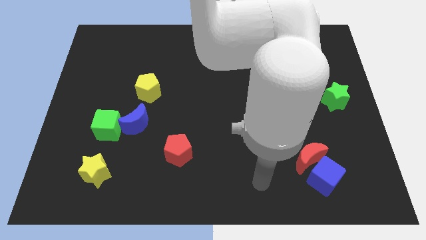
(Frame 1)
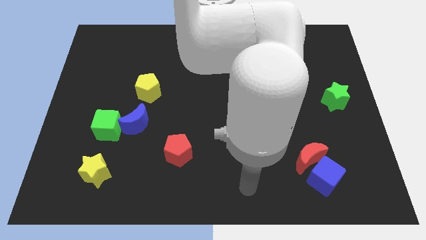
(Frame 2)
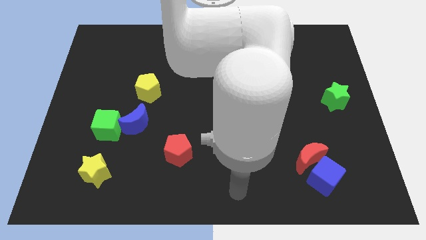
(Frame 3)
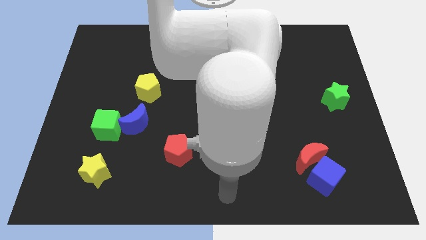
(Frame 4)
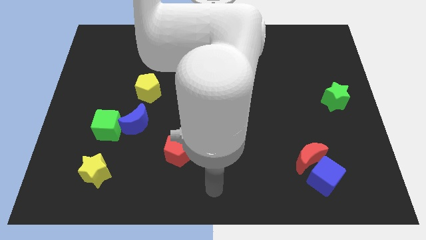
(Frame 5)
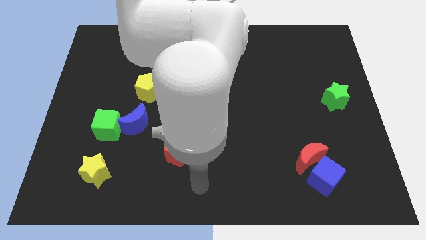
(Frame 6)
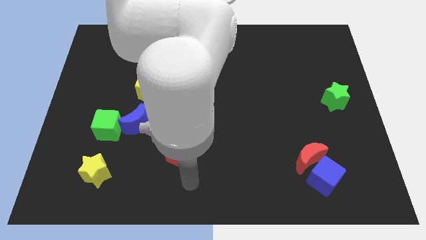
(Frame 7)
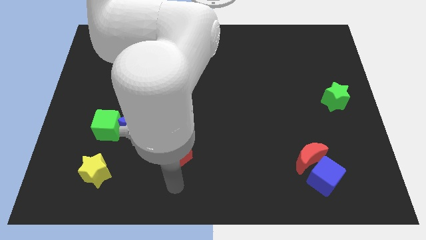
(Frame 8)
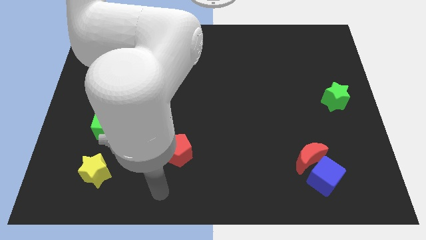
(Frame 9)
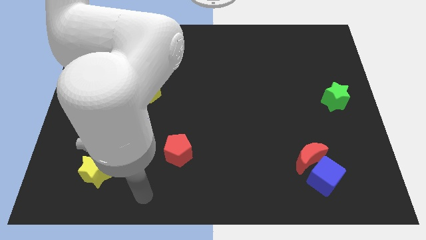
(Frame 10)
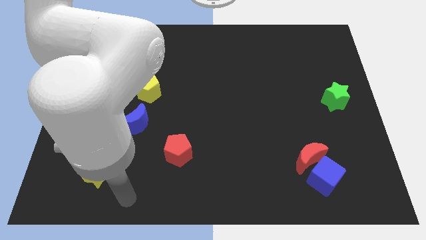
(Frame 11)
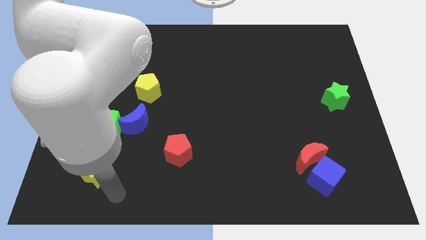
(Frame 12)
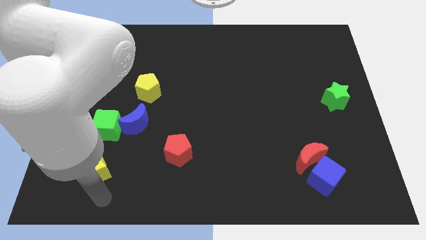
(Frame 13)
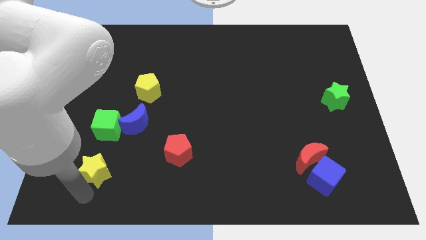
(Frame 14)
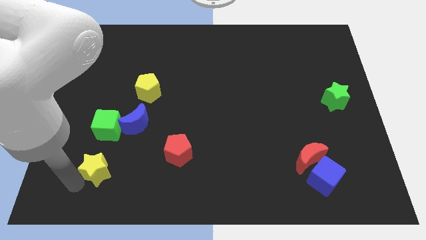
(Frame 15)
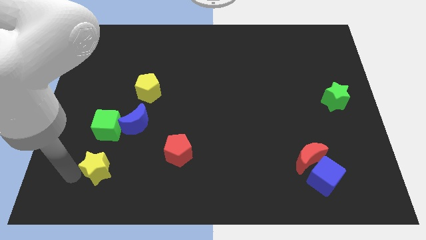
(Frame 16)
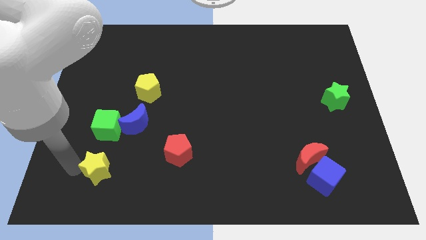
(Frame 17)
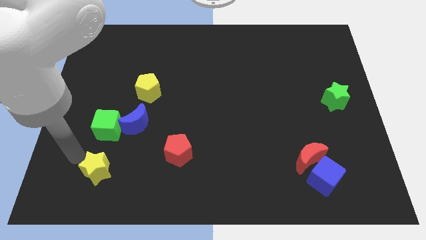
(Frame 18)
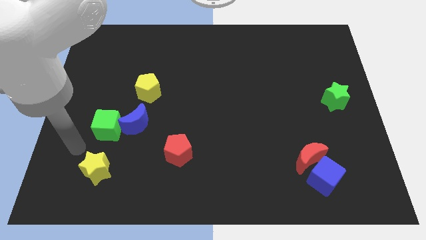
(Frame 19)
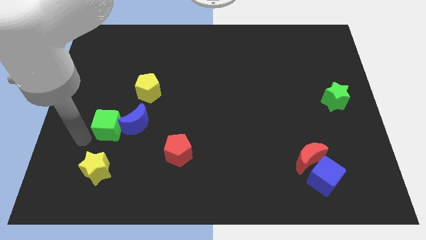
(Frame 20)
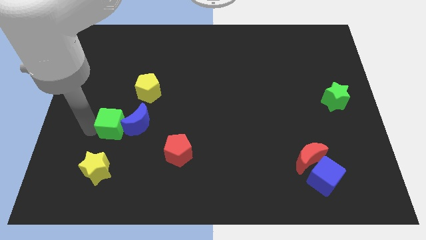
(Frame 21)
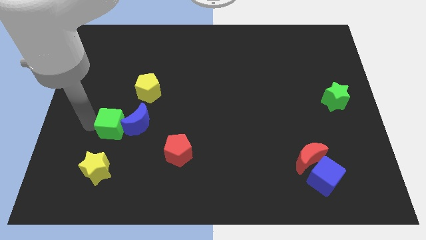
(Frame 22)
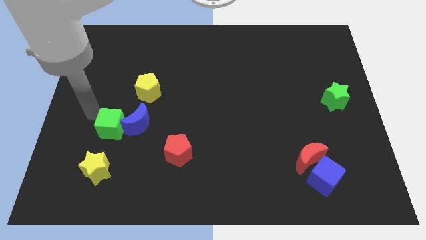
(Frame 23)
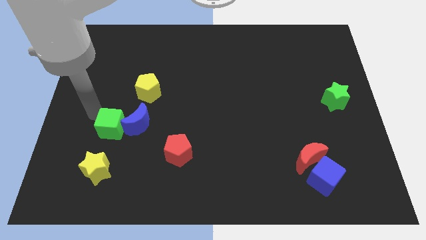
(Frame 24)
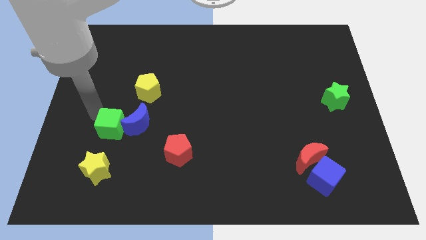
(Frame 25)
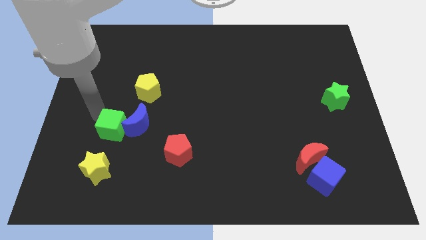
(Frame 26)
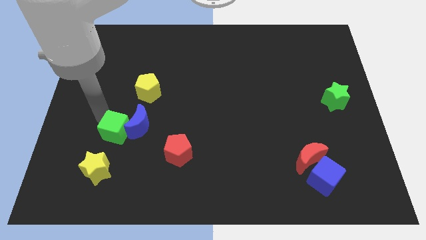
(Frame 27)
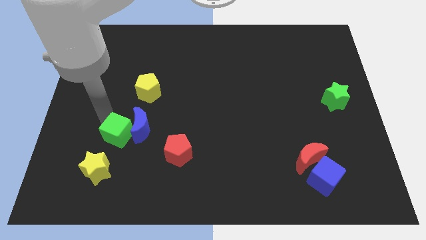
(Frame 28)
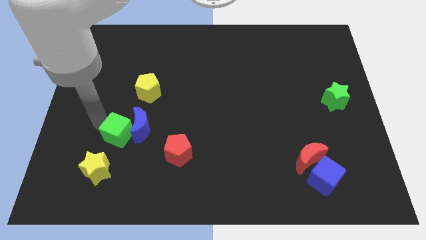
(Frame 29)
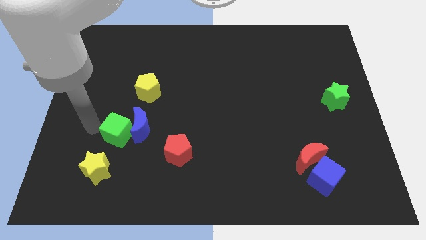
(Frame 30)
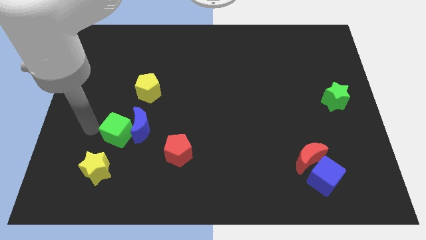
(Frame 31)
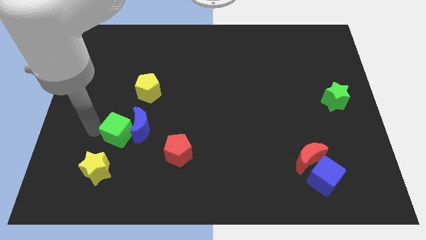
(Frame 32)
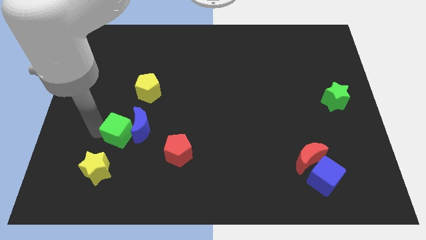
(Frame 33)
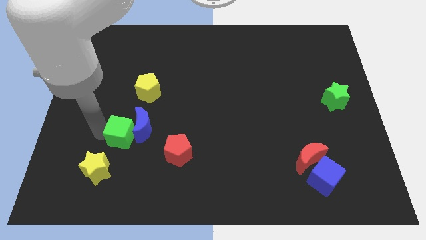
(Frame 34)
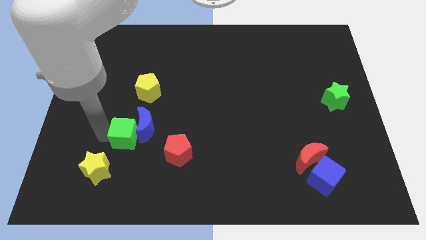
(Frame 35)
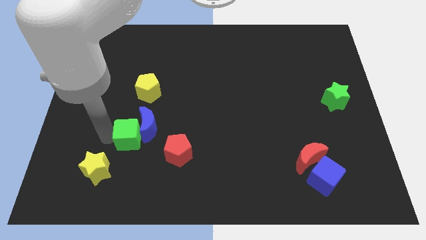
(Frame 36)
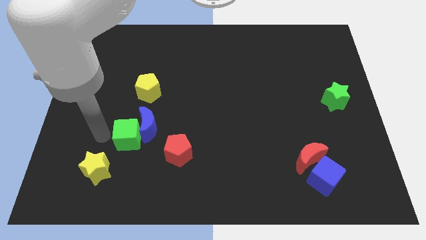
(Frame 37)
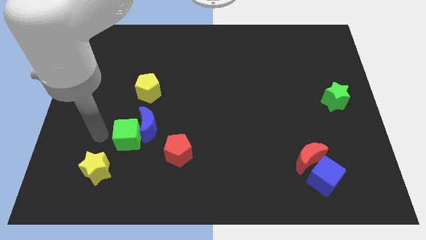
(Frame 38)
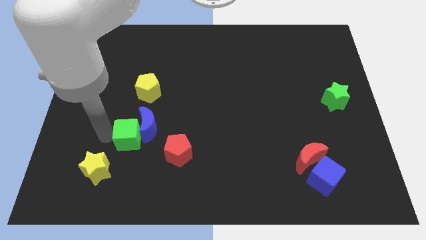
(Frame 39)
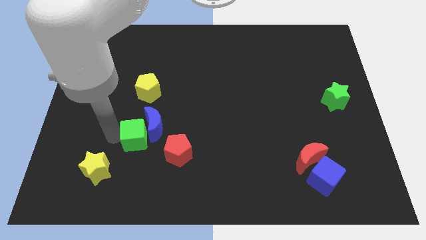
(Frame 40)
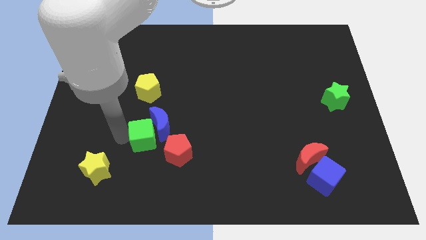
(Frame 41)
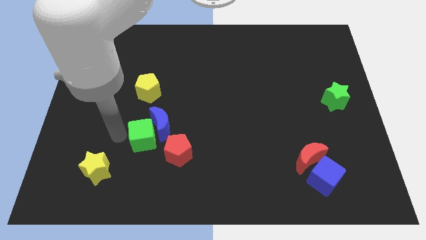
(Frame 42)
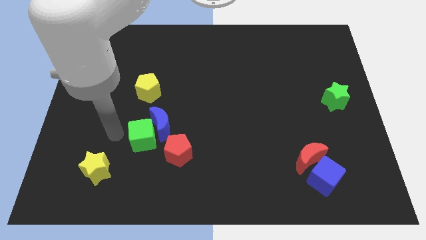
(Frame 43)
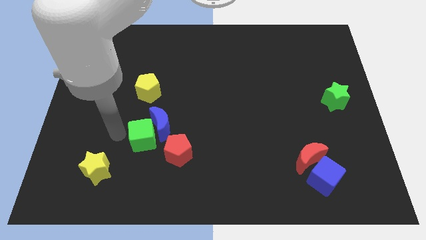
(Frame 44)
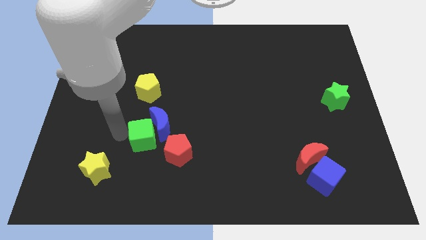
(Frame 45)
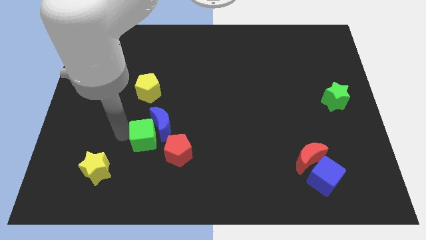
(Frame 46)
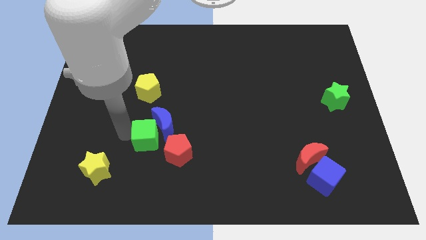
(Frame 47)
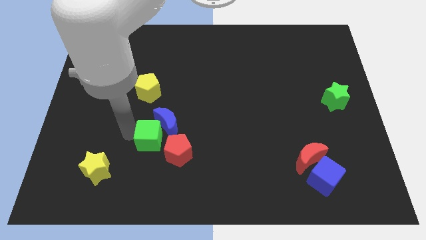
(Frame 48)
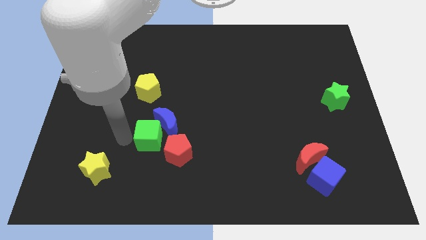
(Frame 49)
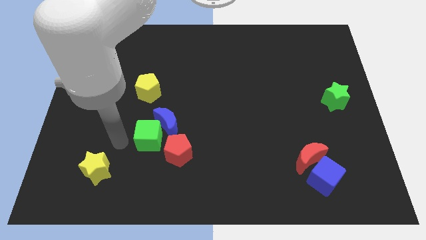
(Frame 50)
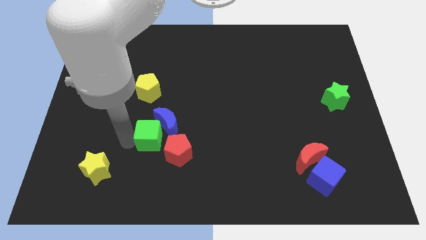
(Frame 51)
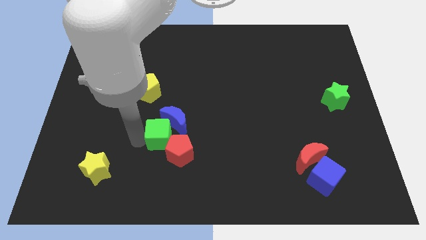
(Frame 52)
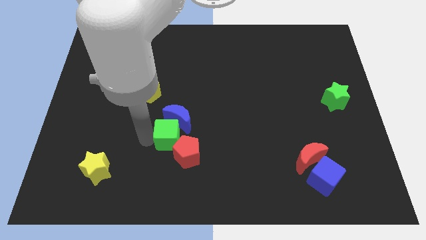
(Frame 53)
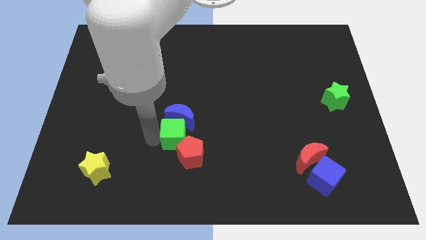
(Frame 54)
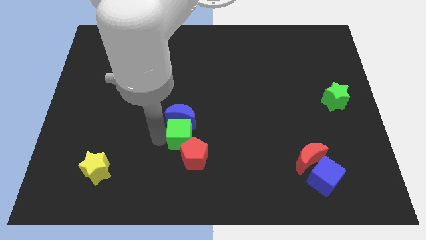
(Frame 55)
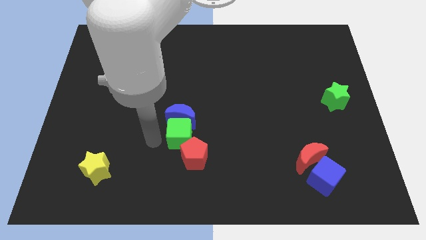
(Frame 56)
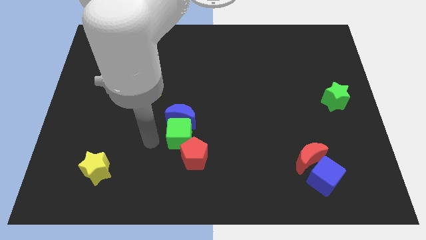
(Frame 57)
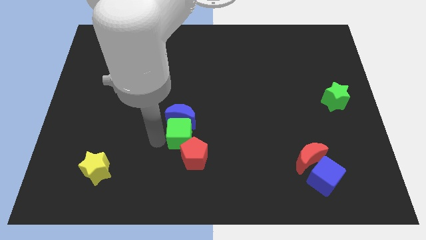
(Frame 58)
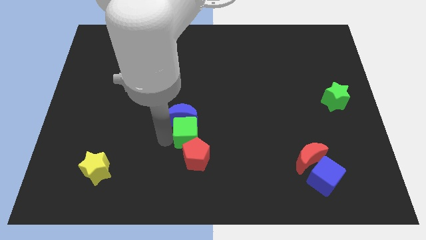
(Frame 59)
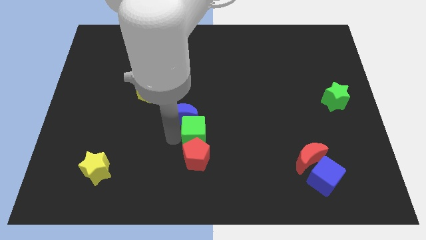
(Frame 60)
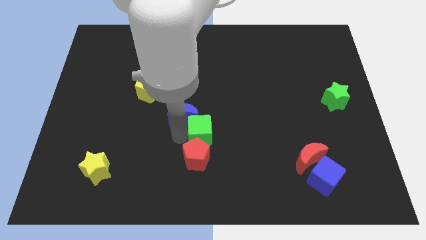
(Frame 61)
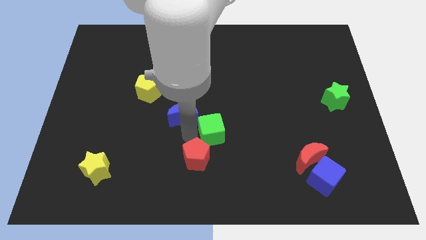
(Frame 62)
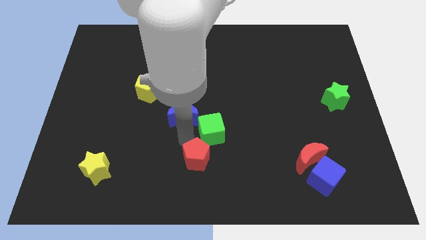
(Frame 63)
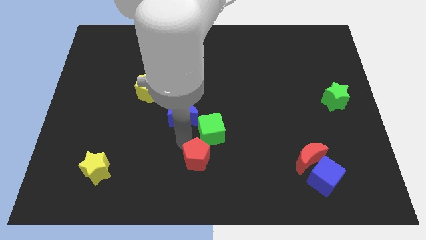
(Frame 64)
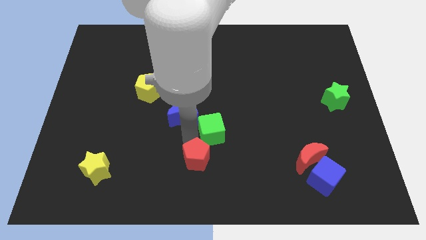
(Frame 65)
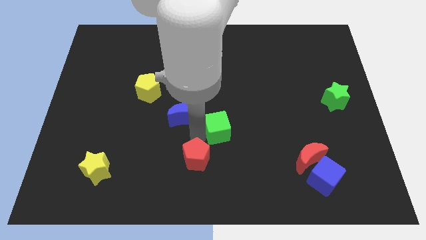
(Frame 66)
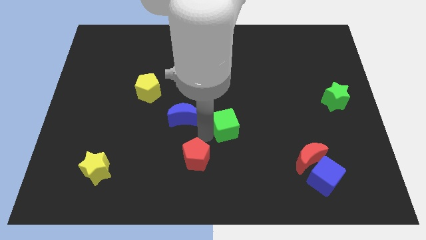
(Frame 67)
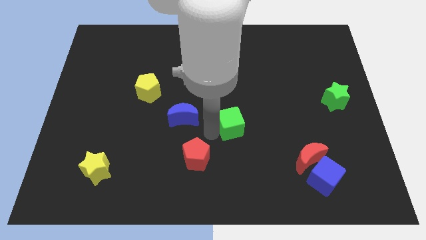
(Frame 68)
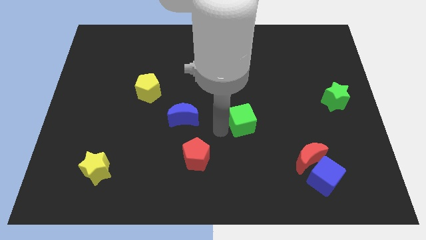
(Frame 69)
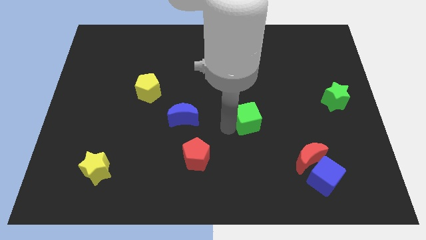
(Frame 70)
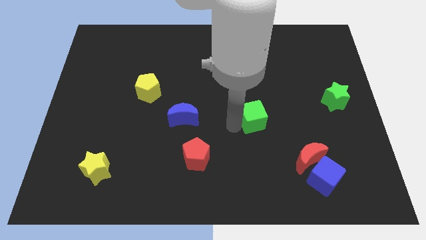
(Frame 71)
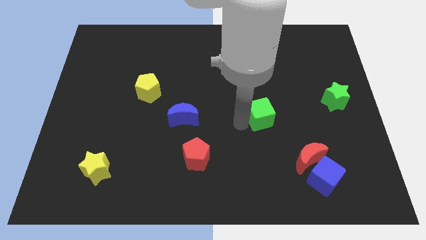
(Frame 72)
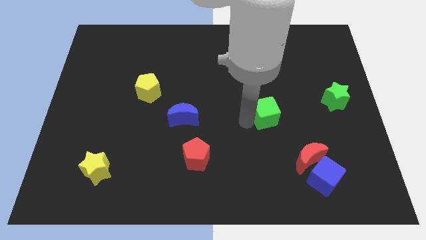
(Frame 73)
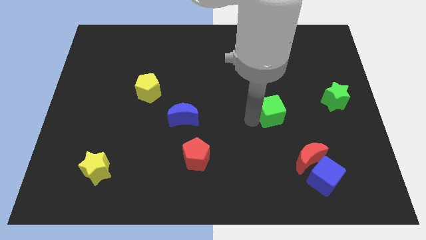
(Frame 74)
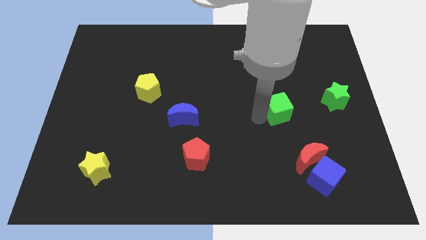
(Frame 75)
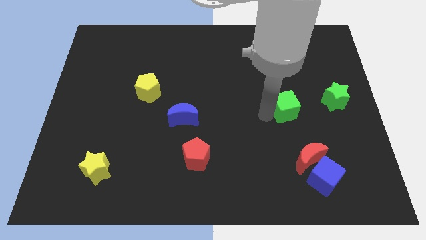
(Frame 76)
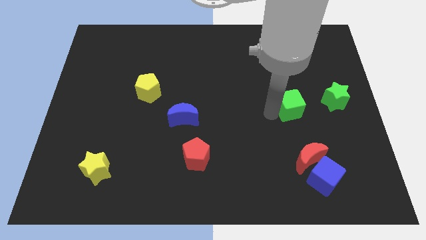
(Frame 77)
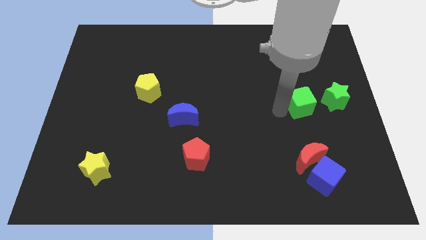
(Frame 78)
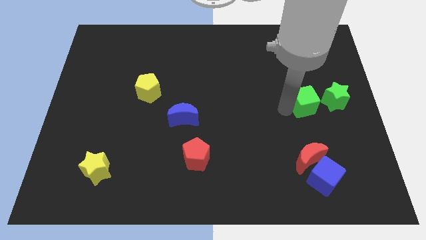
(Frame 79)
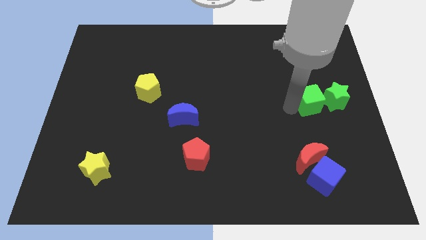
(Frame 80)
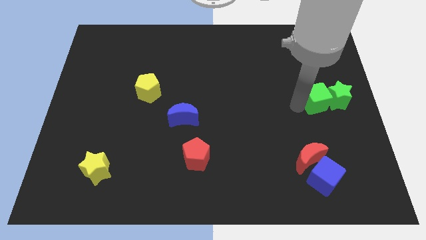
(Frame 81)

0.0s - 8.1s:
move the green cube next to the green star
